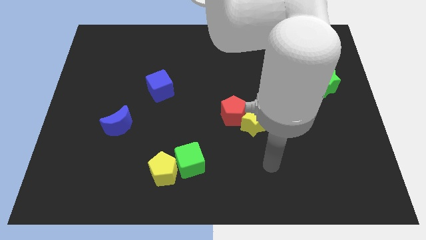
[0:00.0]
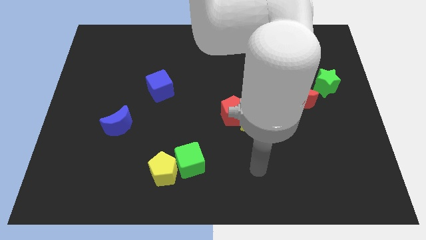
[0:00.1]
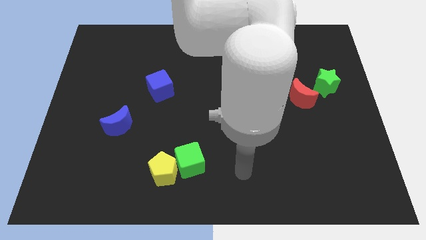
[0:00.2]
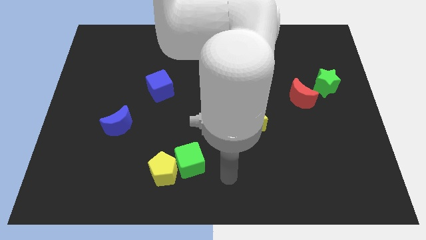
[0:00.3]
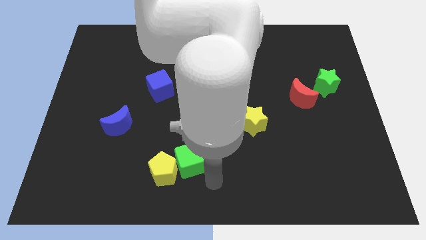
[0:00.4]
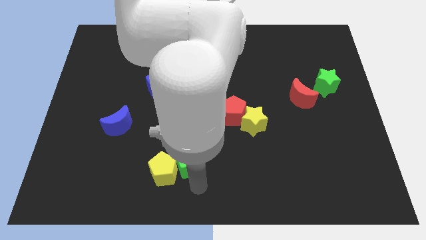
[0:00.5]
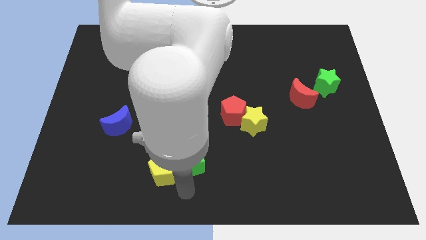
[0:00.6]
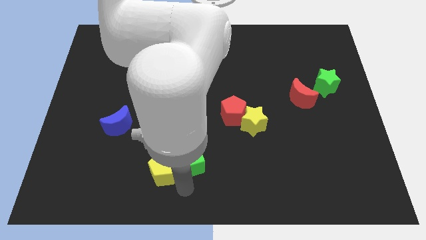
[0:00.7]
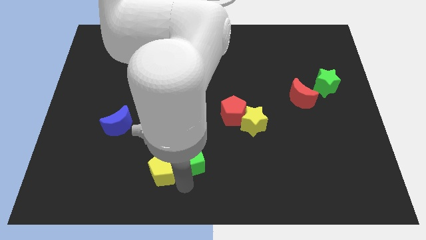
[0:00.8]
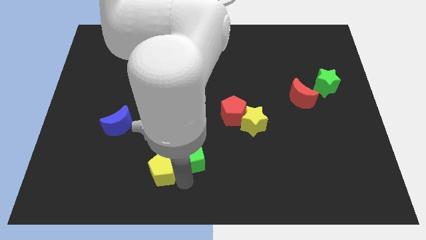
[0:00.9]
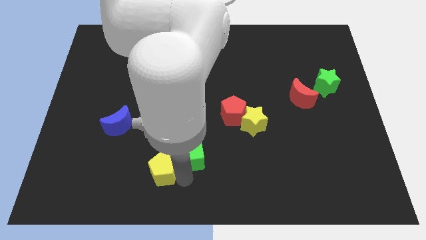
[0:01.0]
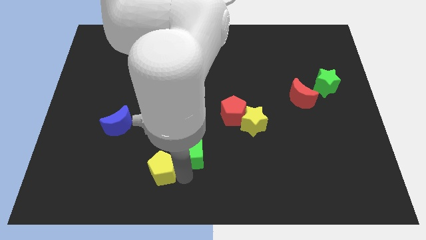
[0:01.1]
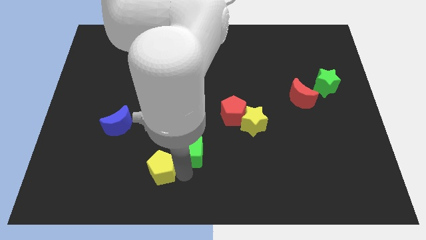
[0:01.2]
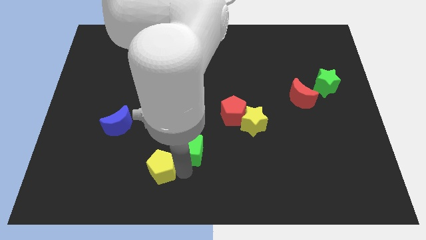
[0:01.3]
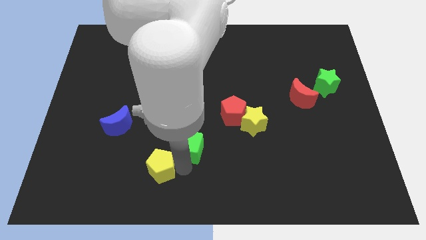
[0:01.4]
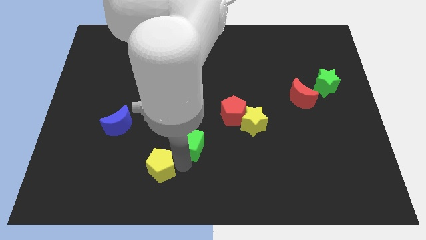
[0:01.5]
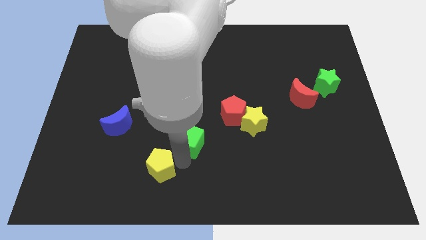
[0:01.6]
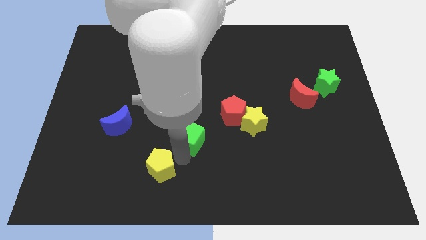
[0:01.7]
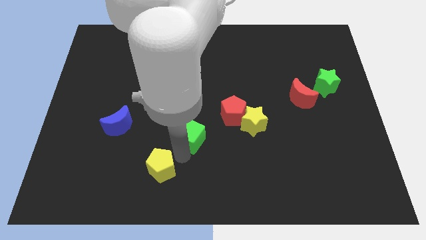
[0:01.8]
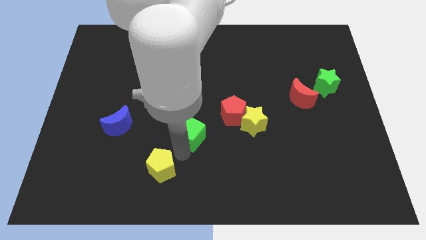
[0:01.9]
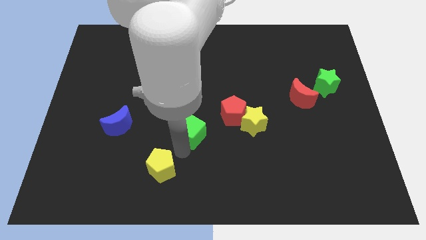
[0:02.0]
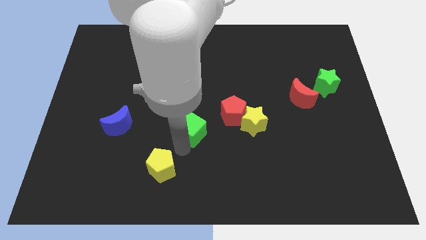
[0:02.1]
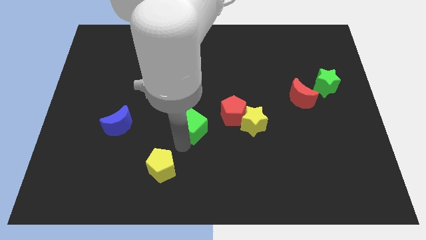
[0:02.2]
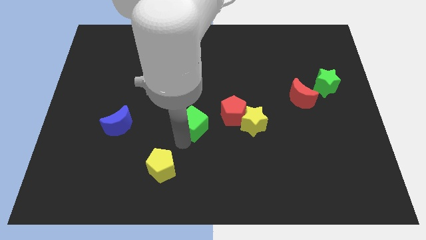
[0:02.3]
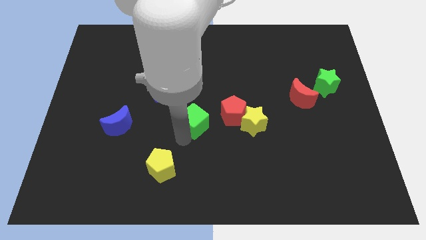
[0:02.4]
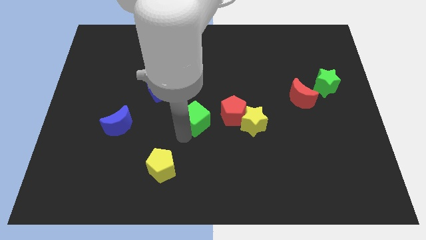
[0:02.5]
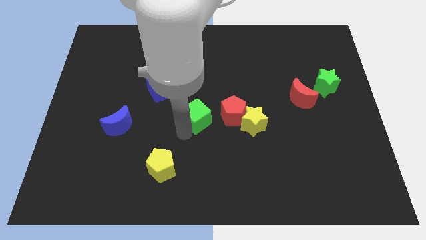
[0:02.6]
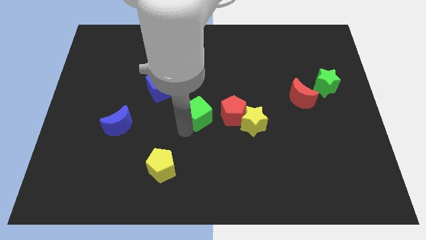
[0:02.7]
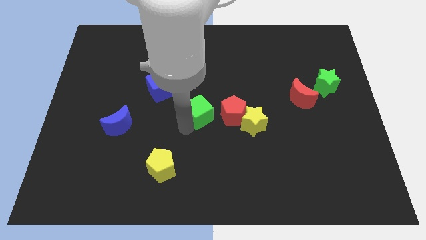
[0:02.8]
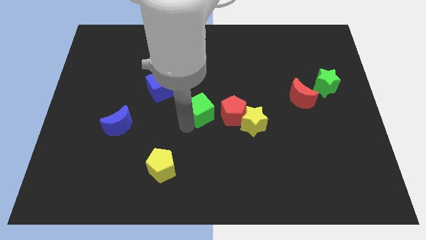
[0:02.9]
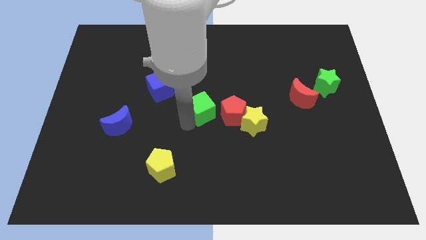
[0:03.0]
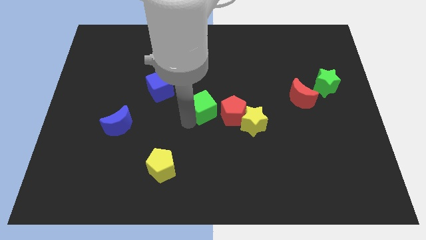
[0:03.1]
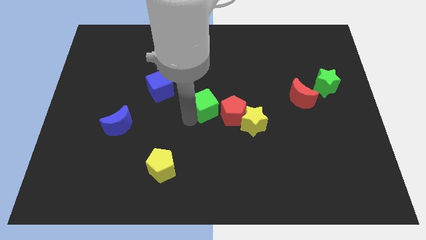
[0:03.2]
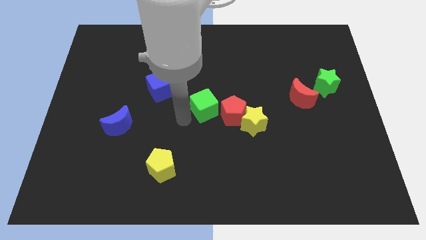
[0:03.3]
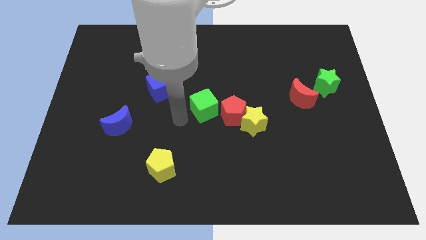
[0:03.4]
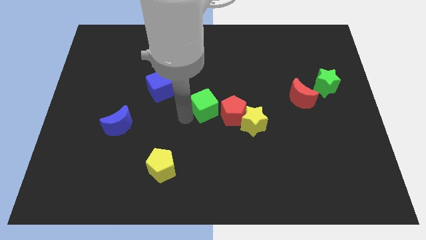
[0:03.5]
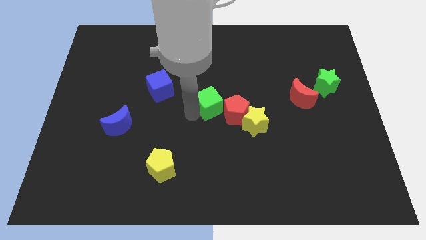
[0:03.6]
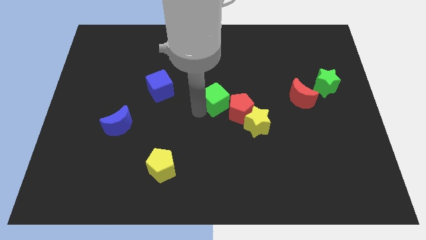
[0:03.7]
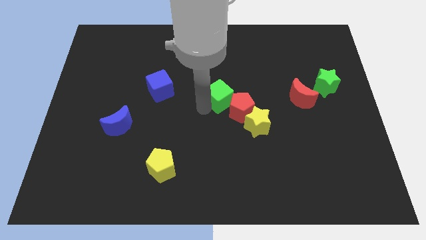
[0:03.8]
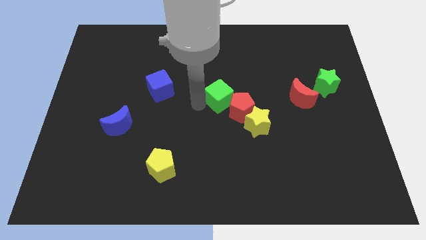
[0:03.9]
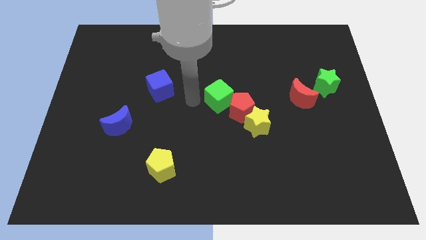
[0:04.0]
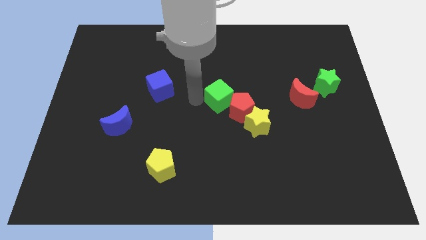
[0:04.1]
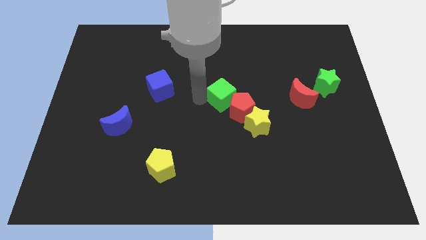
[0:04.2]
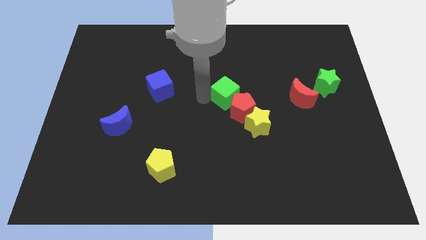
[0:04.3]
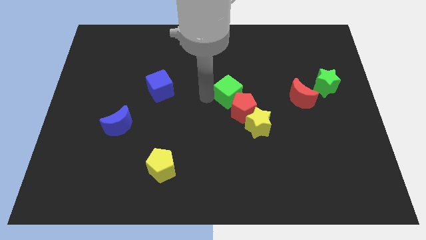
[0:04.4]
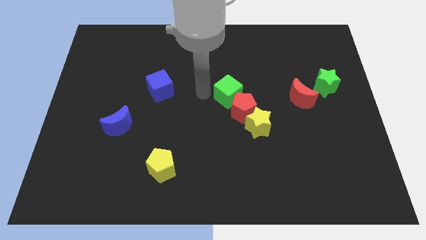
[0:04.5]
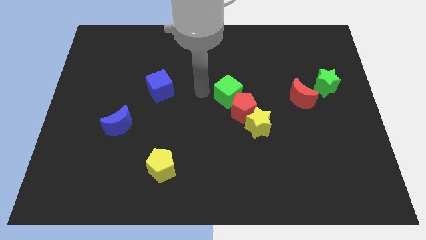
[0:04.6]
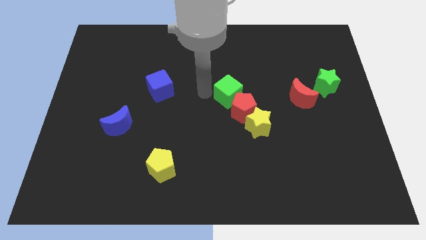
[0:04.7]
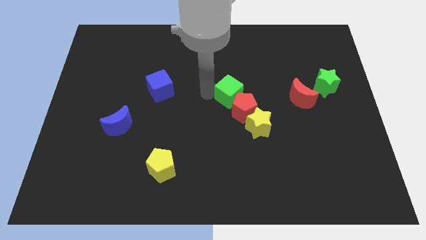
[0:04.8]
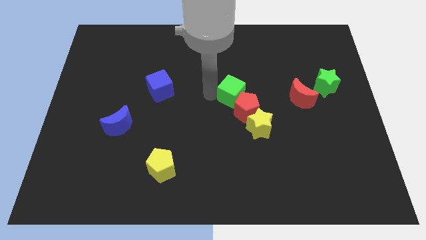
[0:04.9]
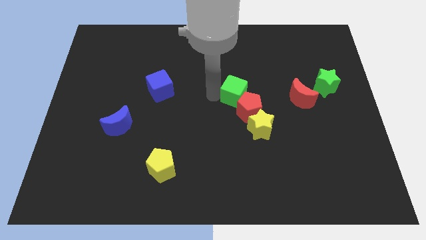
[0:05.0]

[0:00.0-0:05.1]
put the green cube to the left of the red moon

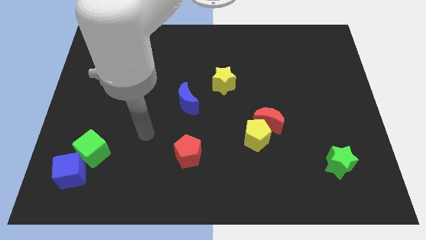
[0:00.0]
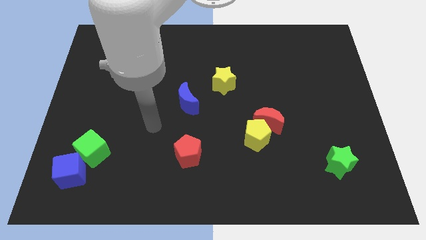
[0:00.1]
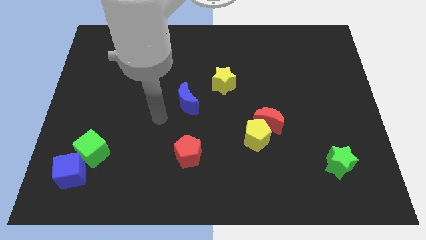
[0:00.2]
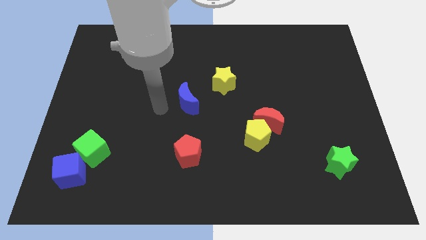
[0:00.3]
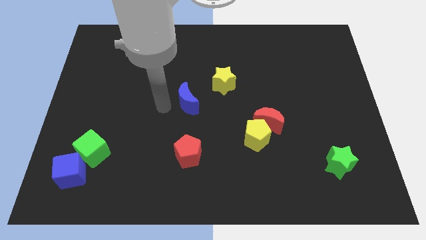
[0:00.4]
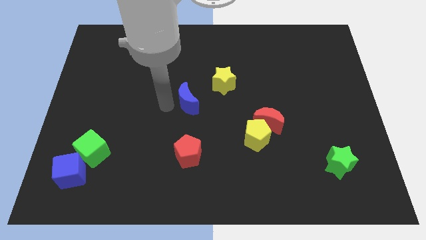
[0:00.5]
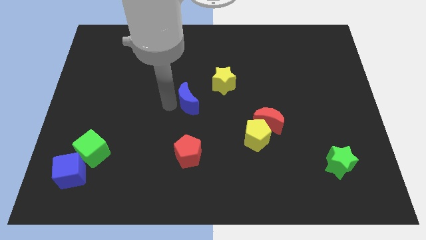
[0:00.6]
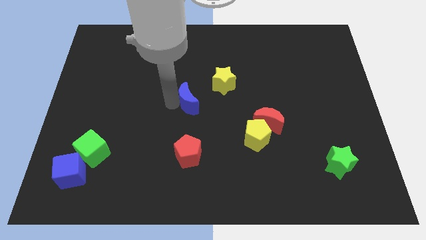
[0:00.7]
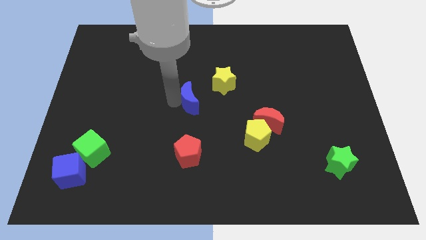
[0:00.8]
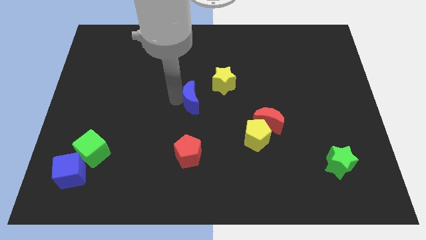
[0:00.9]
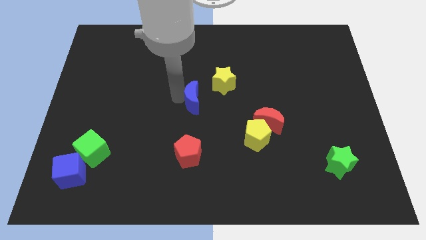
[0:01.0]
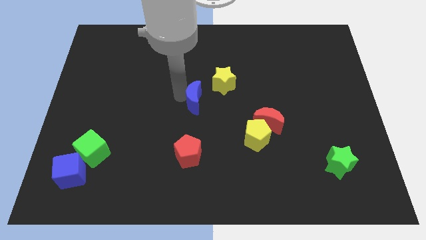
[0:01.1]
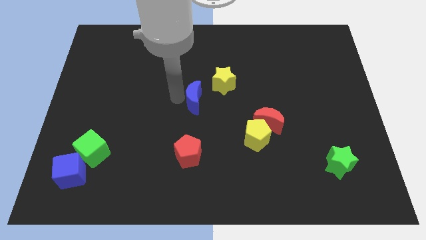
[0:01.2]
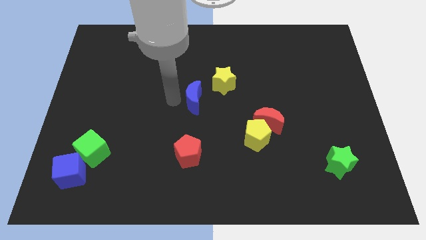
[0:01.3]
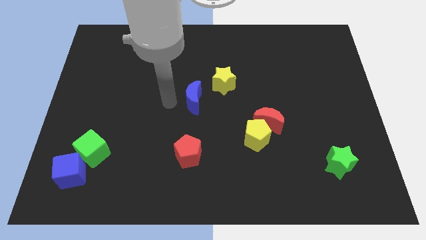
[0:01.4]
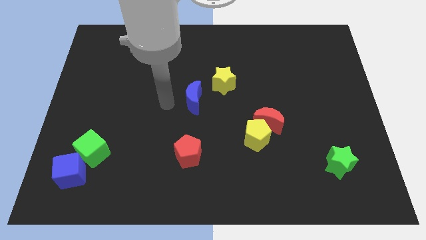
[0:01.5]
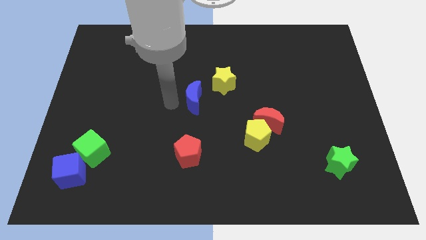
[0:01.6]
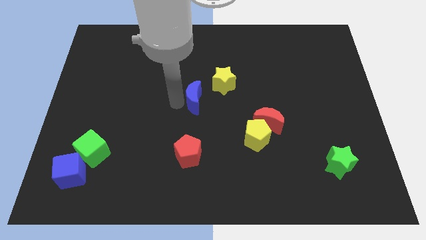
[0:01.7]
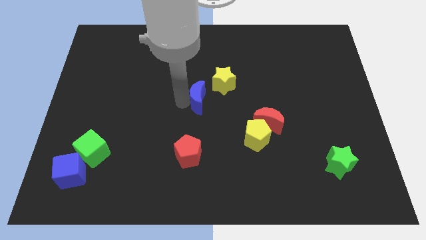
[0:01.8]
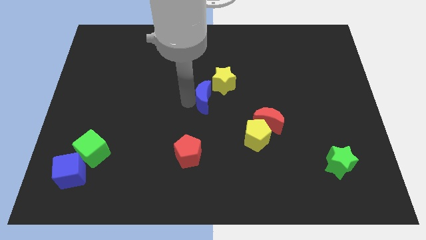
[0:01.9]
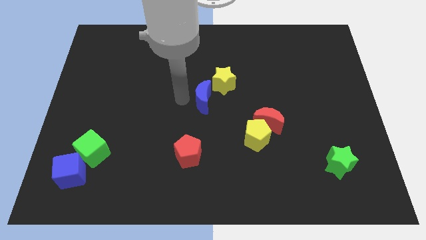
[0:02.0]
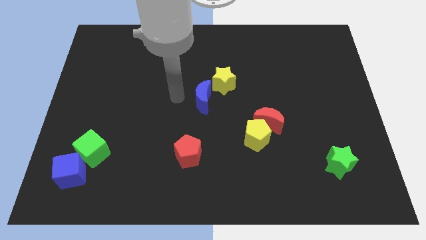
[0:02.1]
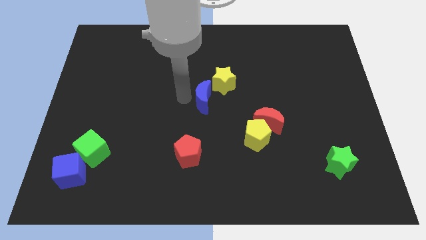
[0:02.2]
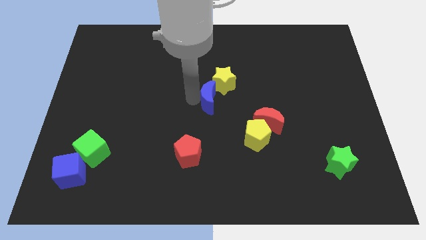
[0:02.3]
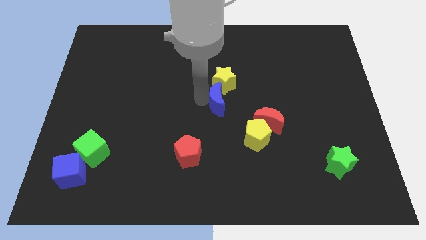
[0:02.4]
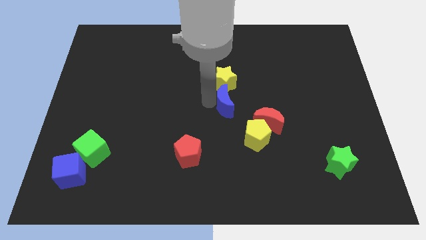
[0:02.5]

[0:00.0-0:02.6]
move the blue moon diagonally up and to the left of the red moon
